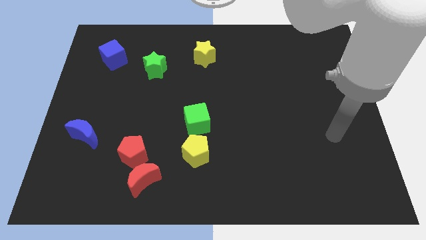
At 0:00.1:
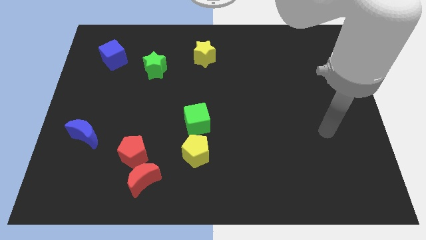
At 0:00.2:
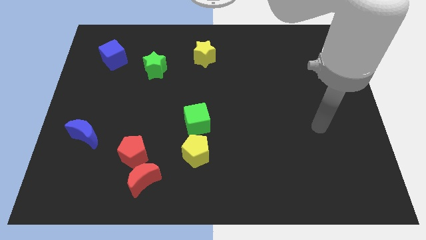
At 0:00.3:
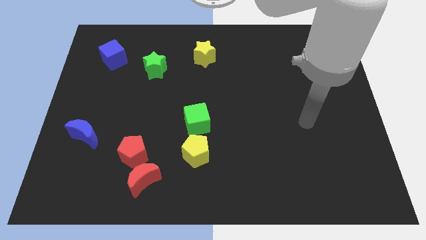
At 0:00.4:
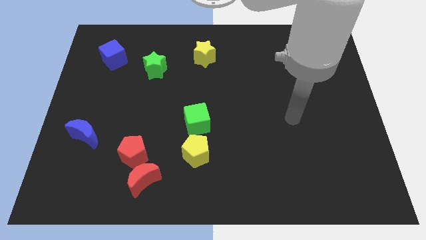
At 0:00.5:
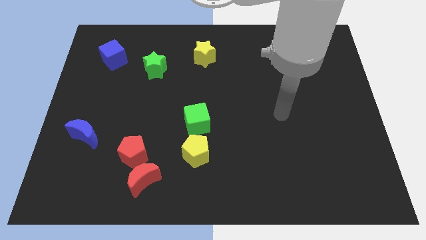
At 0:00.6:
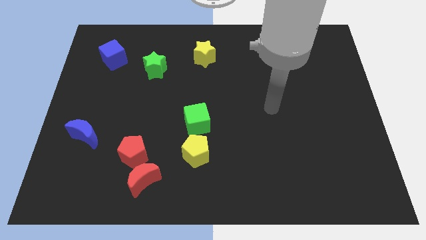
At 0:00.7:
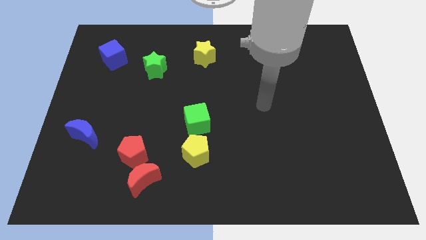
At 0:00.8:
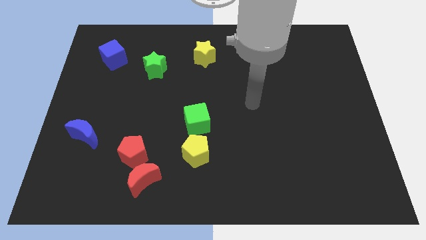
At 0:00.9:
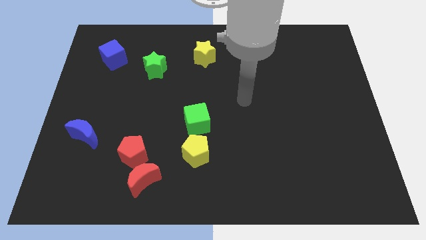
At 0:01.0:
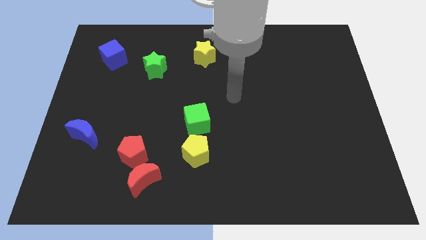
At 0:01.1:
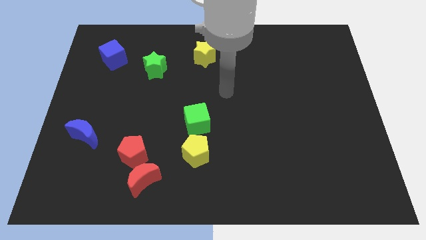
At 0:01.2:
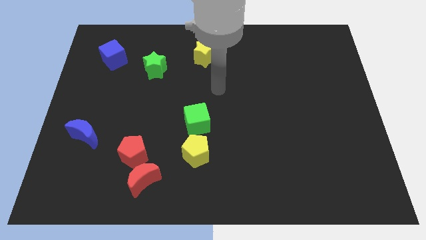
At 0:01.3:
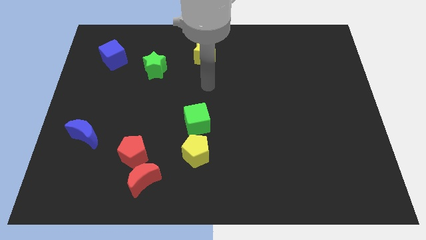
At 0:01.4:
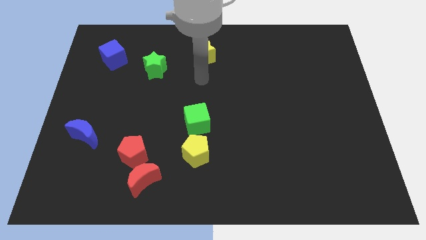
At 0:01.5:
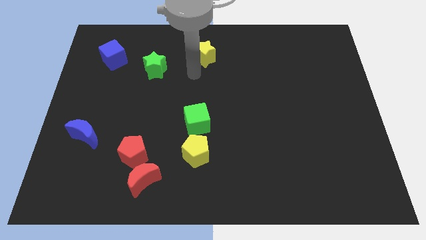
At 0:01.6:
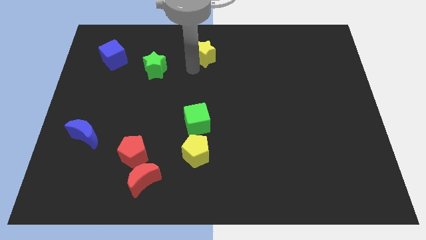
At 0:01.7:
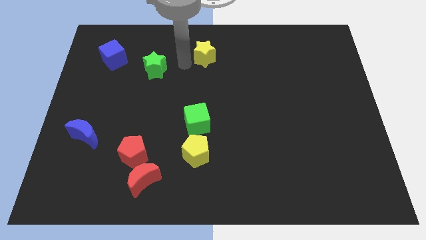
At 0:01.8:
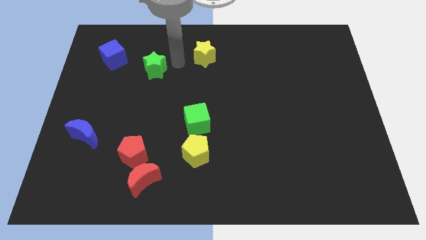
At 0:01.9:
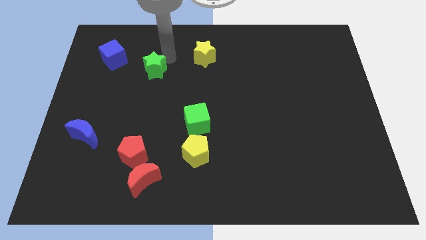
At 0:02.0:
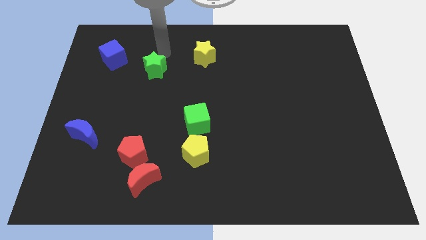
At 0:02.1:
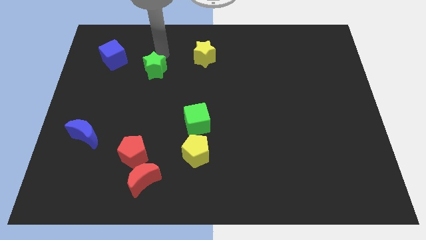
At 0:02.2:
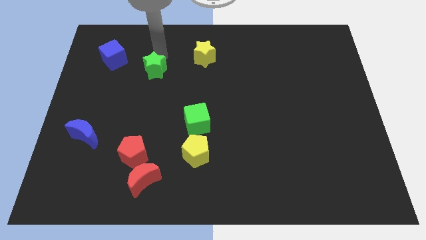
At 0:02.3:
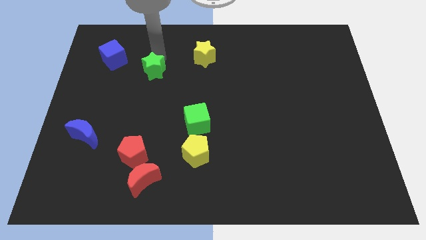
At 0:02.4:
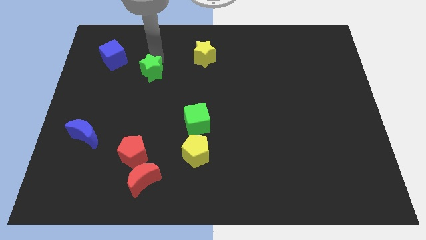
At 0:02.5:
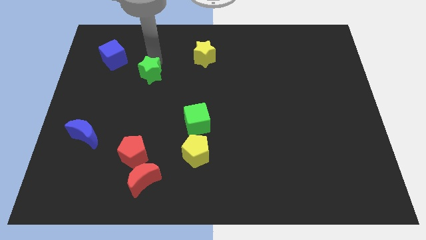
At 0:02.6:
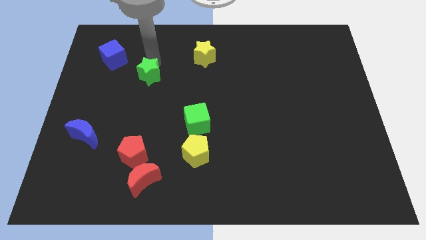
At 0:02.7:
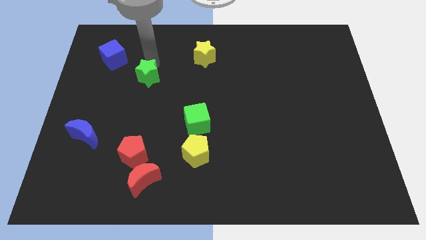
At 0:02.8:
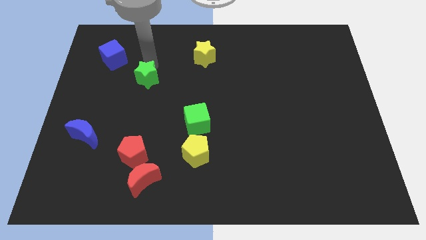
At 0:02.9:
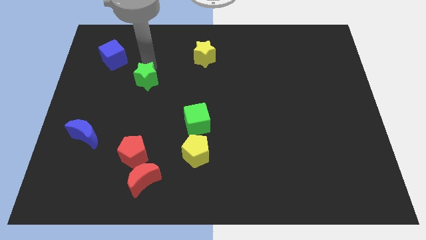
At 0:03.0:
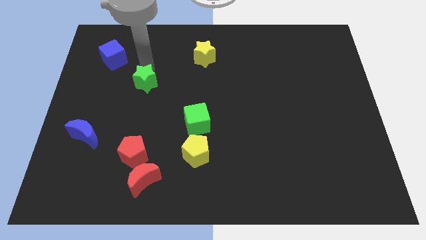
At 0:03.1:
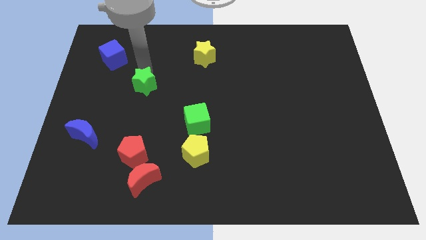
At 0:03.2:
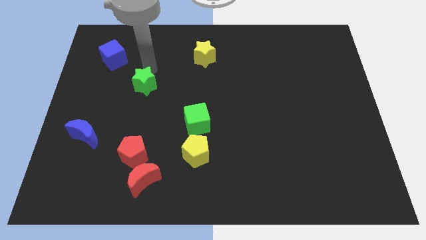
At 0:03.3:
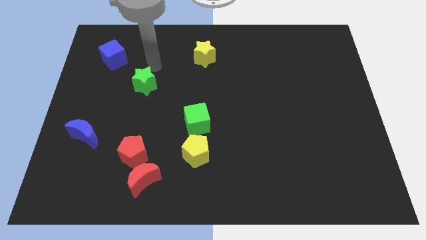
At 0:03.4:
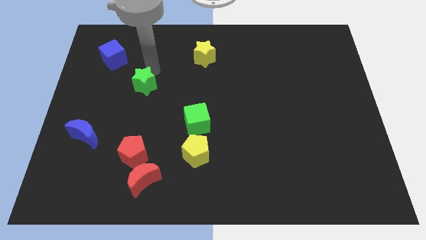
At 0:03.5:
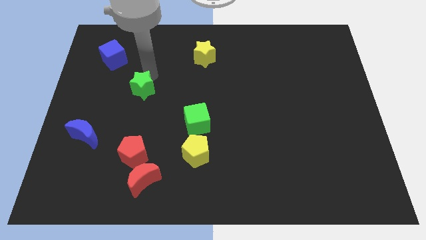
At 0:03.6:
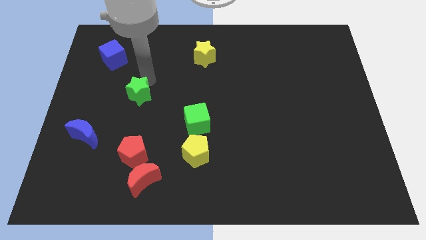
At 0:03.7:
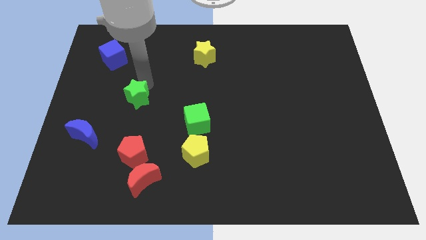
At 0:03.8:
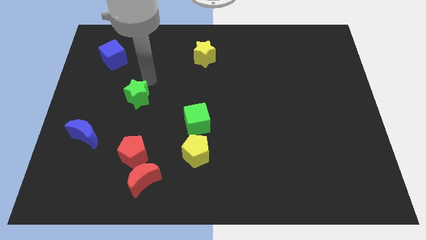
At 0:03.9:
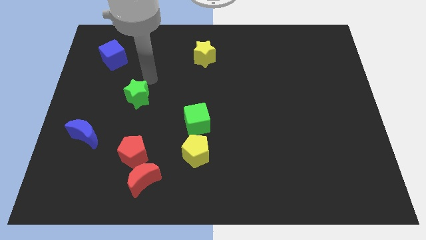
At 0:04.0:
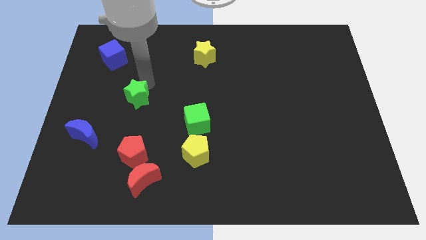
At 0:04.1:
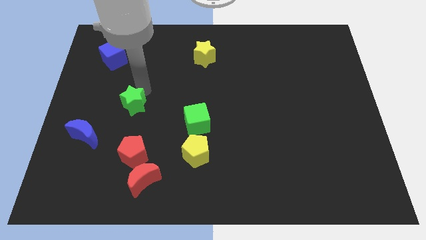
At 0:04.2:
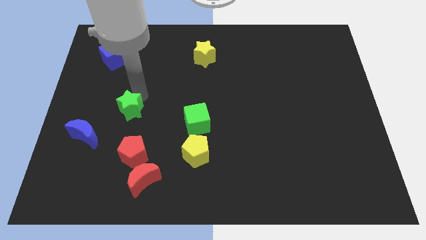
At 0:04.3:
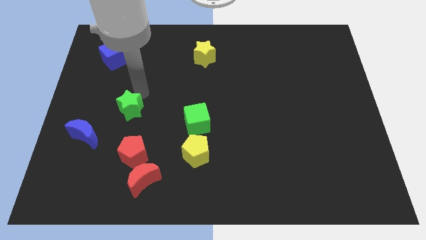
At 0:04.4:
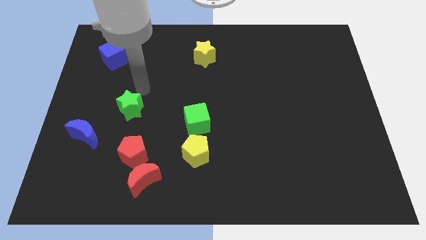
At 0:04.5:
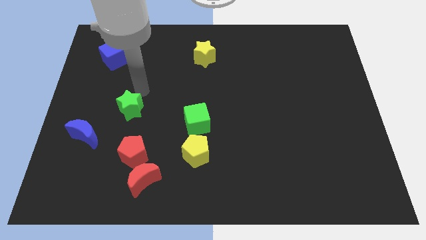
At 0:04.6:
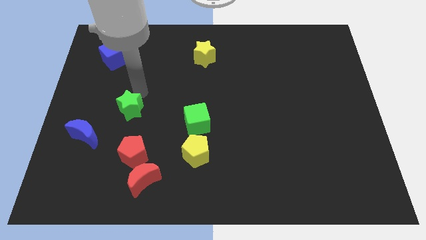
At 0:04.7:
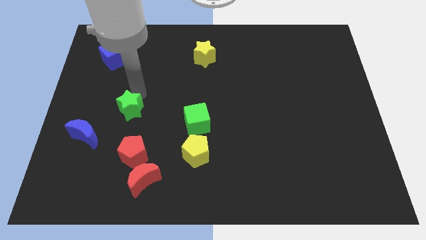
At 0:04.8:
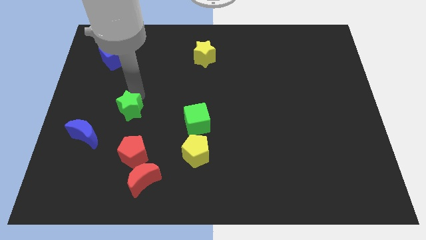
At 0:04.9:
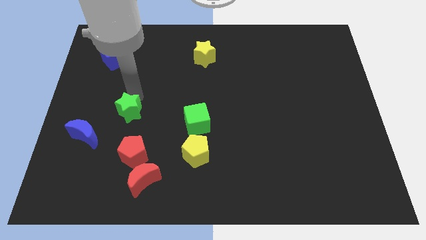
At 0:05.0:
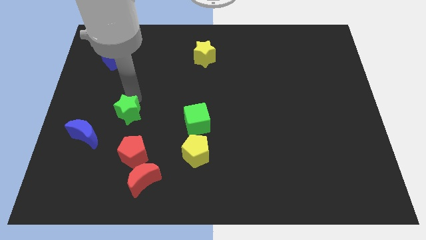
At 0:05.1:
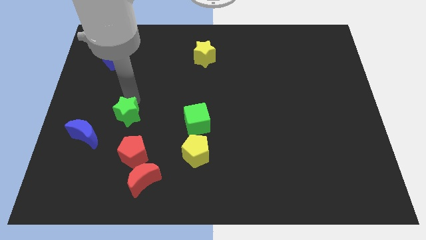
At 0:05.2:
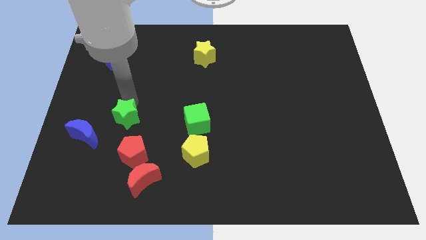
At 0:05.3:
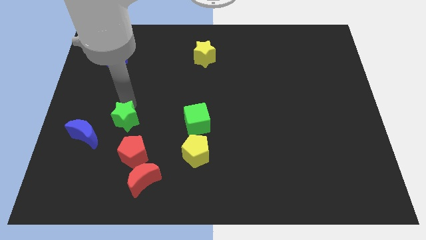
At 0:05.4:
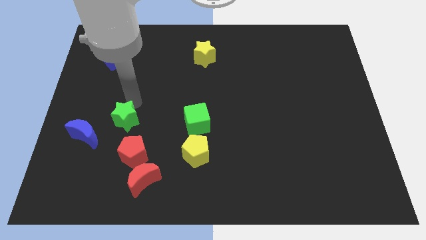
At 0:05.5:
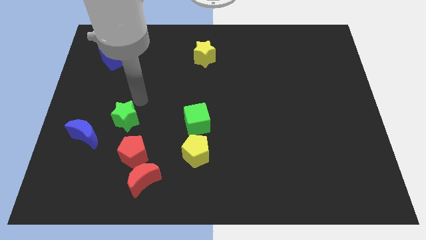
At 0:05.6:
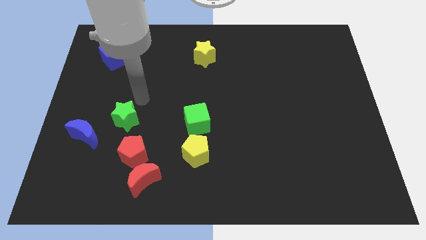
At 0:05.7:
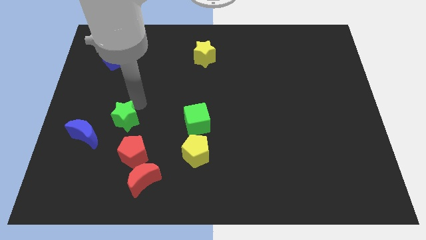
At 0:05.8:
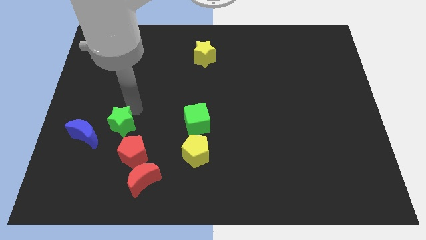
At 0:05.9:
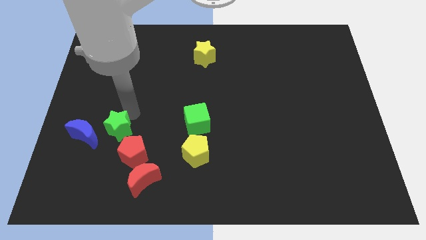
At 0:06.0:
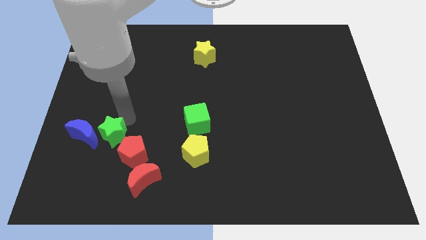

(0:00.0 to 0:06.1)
push the green star to the bottom right side of the blue moon

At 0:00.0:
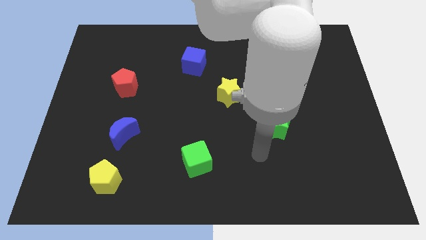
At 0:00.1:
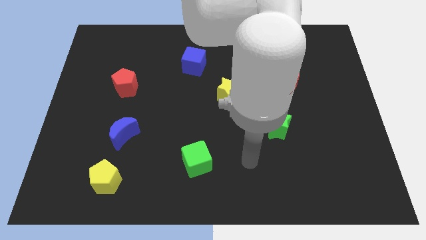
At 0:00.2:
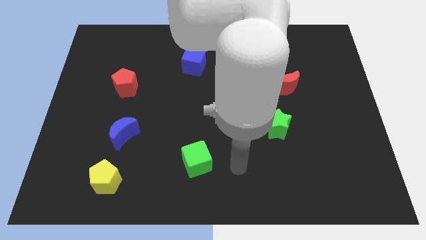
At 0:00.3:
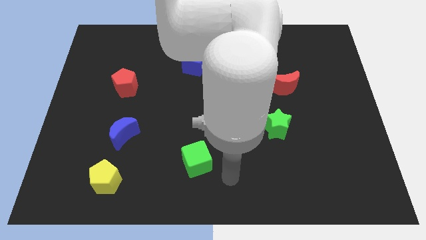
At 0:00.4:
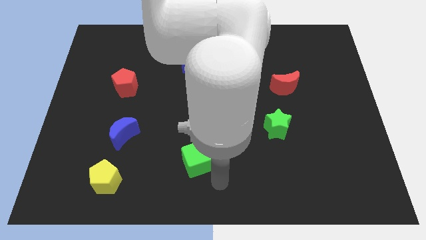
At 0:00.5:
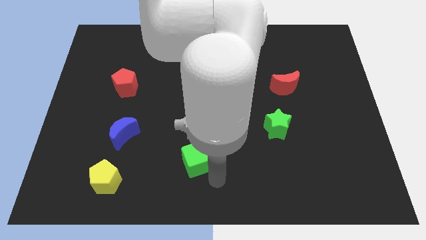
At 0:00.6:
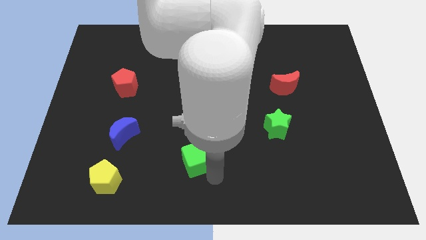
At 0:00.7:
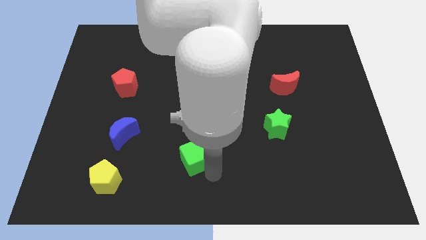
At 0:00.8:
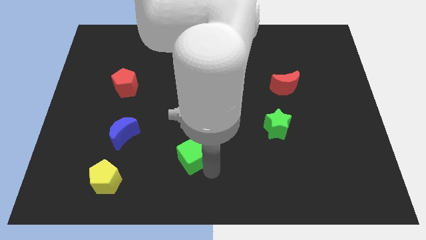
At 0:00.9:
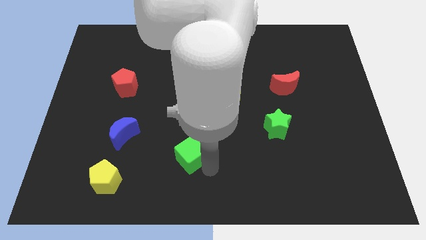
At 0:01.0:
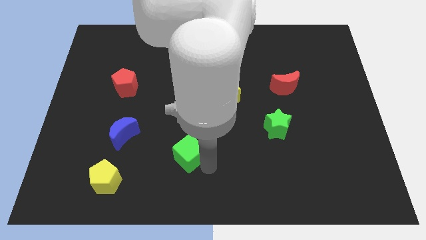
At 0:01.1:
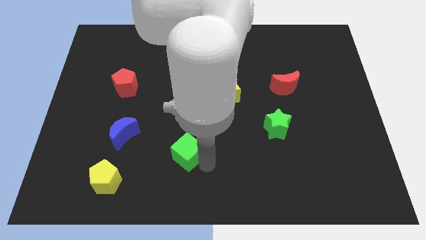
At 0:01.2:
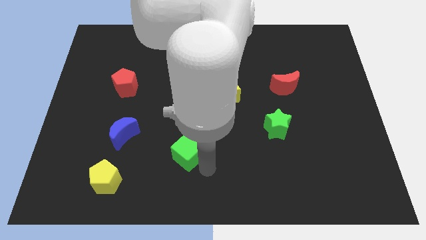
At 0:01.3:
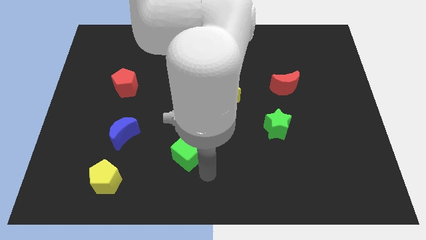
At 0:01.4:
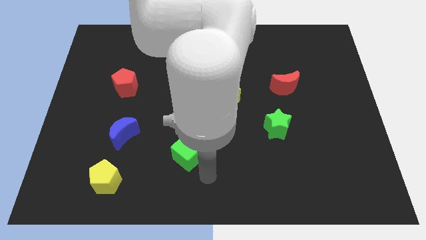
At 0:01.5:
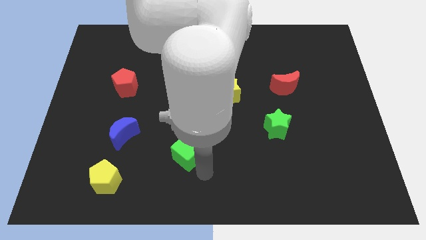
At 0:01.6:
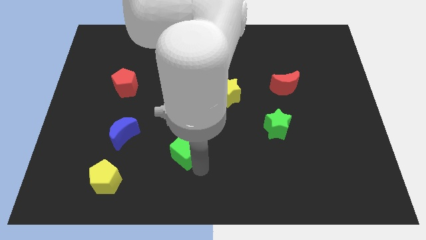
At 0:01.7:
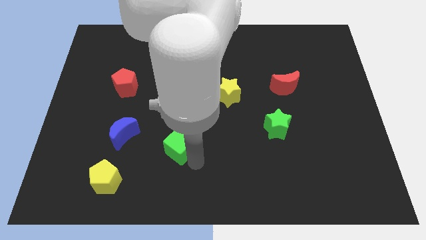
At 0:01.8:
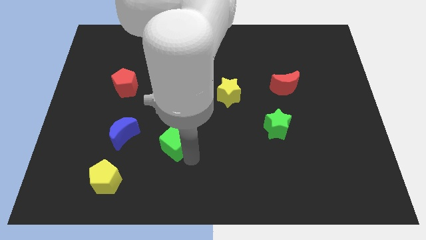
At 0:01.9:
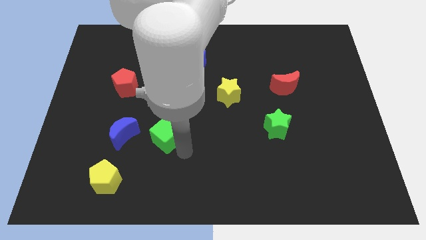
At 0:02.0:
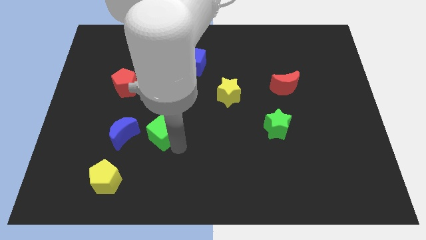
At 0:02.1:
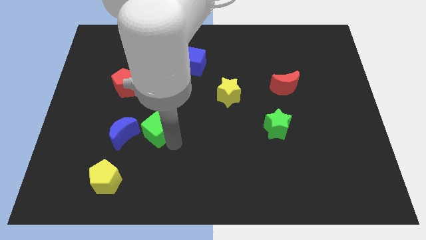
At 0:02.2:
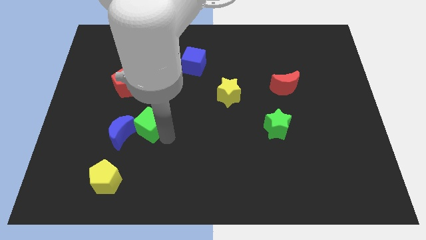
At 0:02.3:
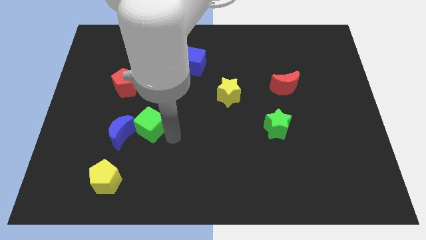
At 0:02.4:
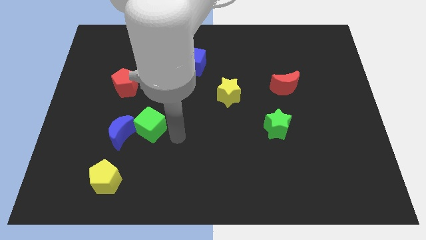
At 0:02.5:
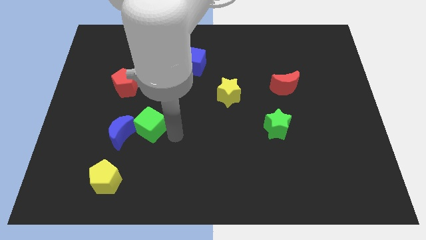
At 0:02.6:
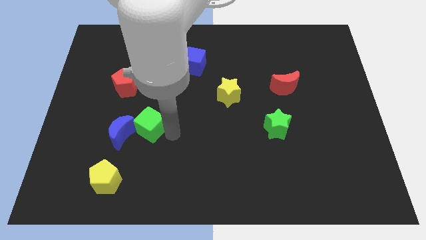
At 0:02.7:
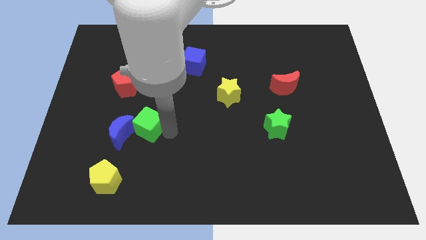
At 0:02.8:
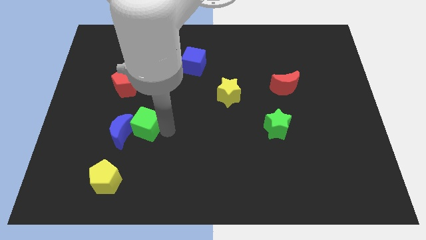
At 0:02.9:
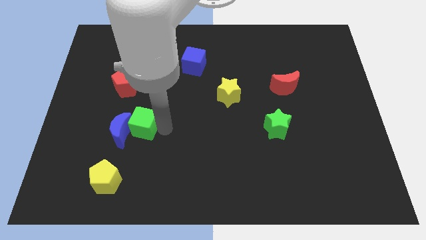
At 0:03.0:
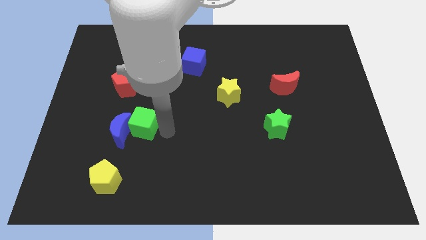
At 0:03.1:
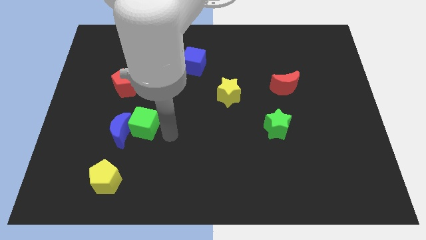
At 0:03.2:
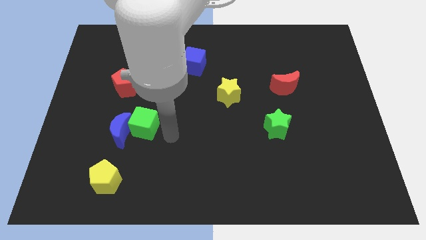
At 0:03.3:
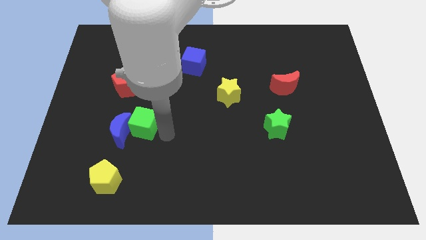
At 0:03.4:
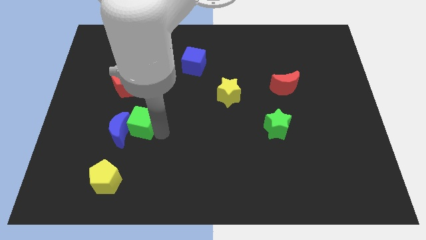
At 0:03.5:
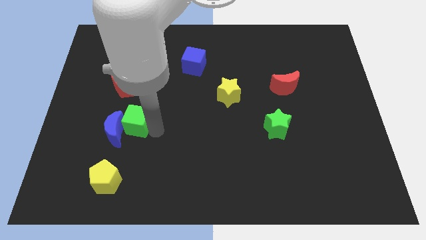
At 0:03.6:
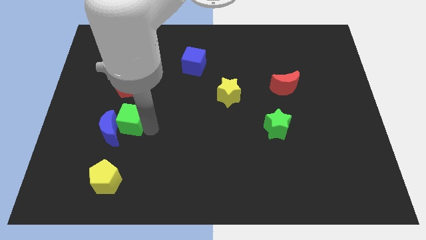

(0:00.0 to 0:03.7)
slide the green cube to the top side of the yellow pentagon
